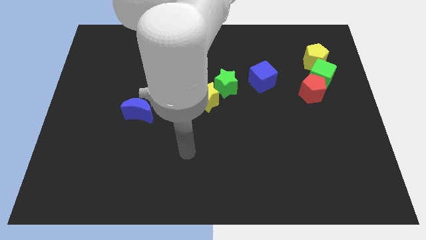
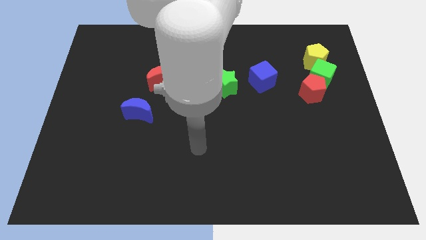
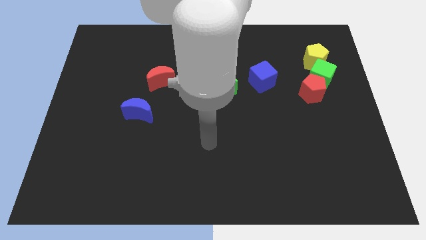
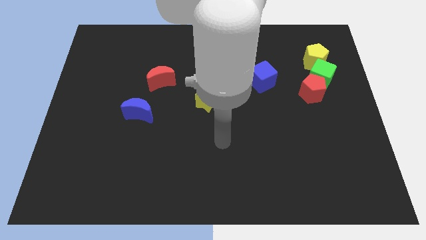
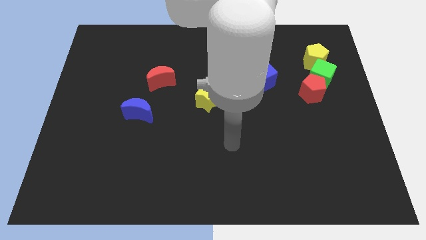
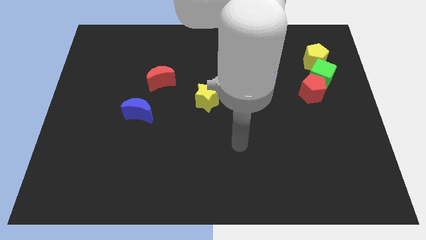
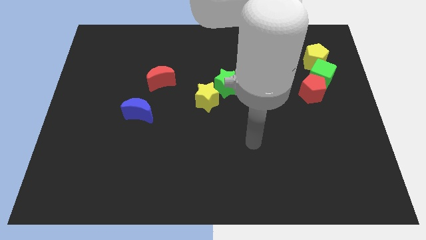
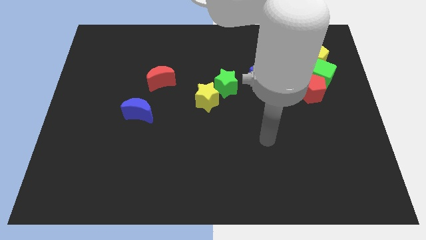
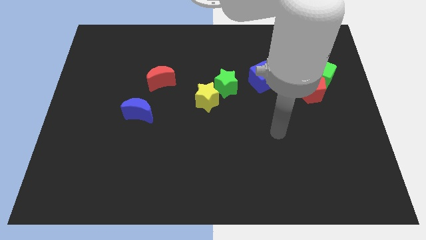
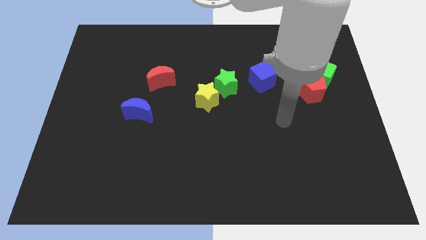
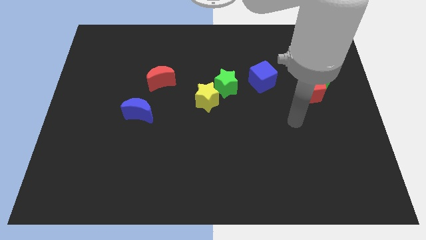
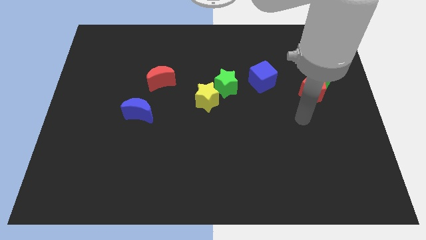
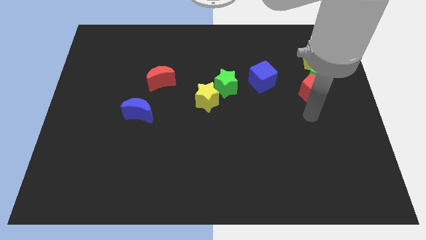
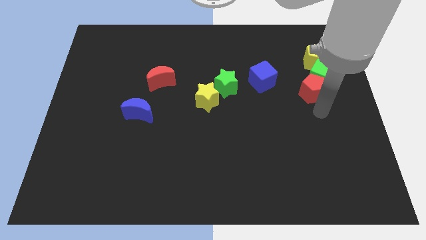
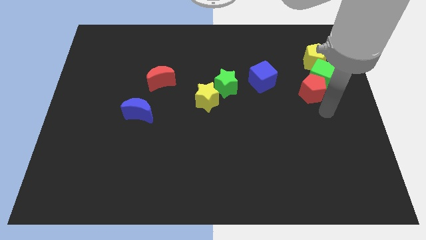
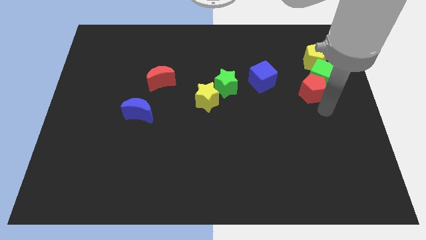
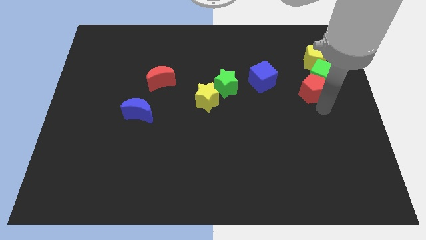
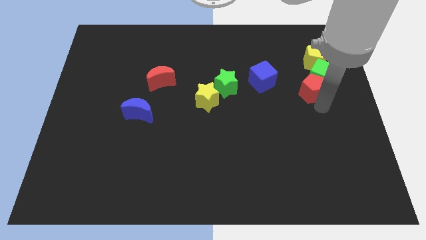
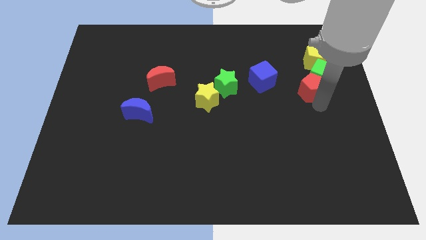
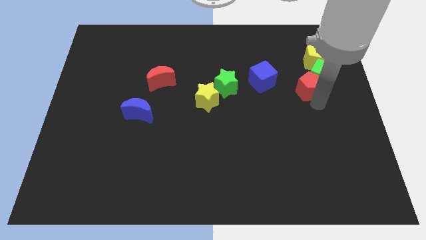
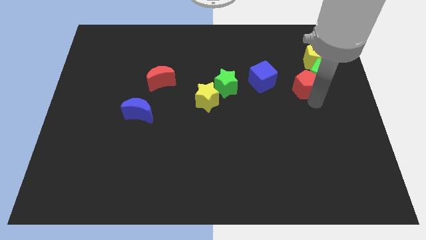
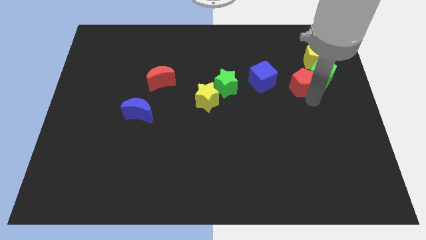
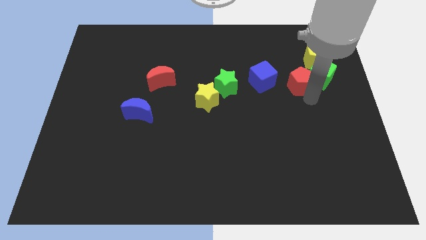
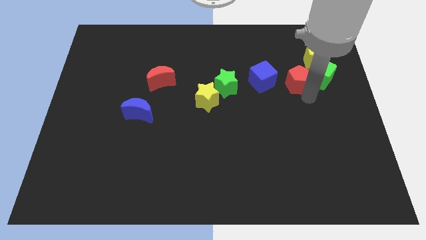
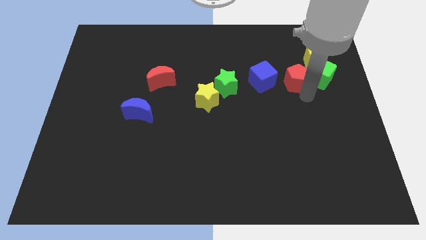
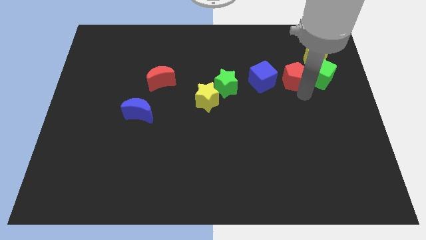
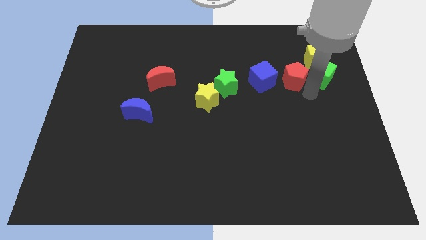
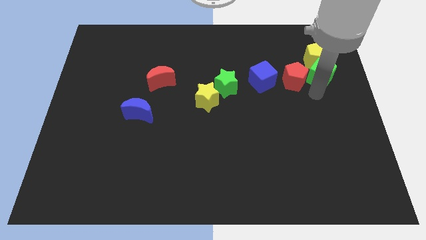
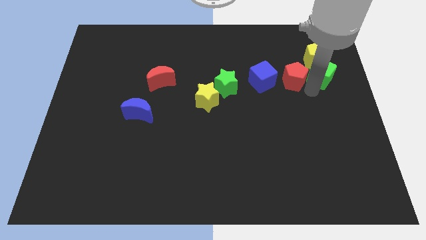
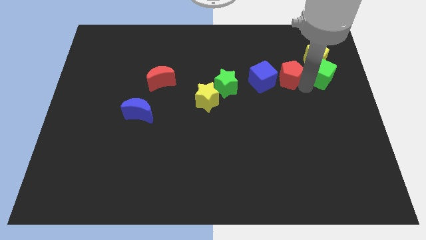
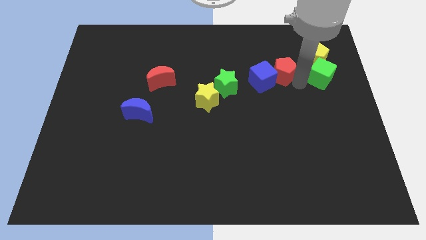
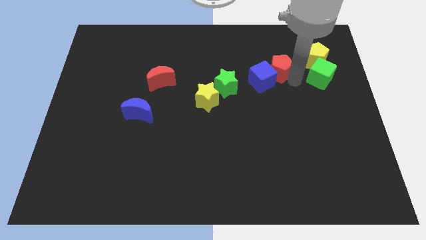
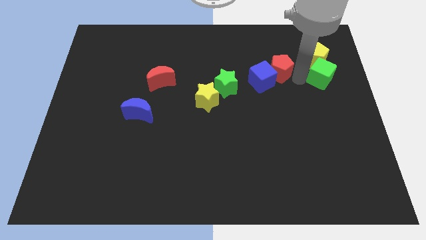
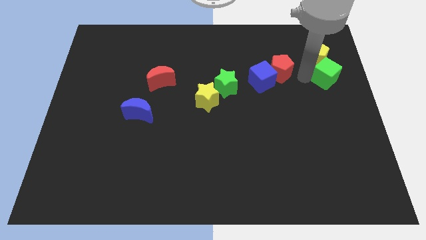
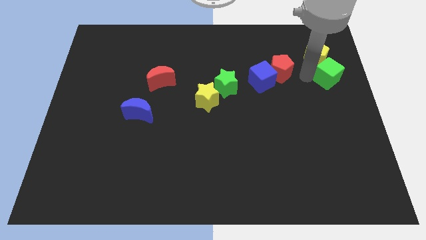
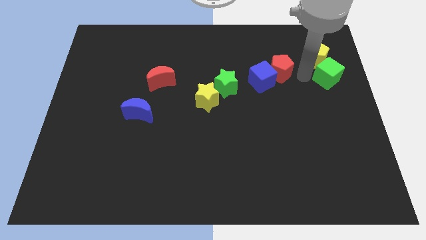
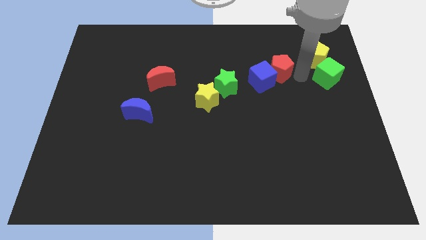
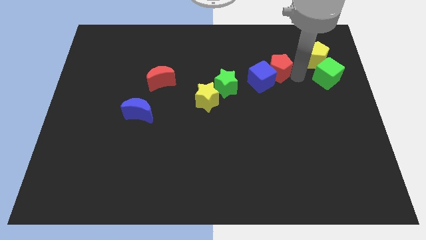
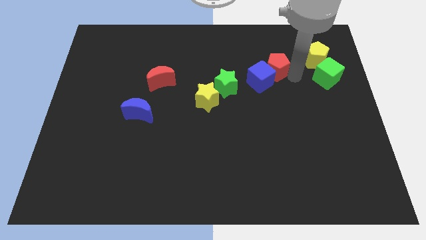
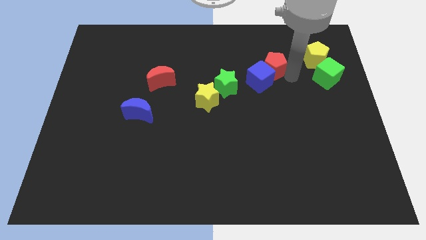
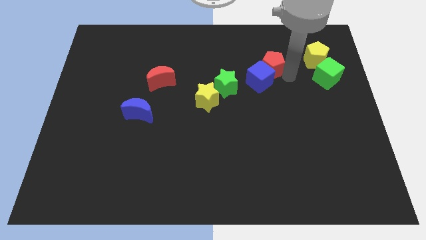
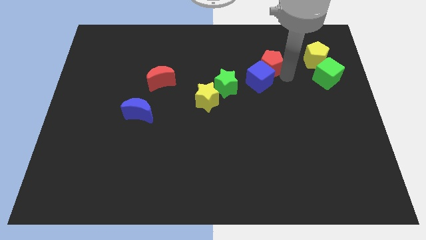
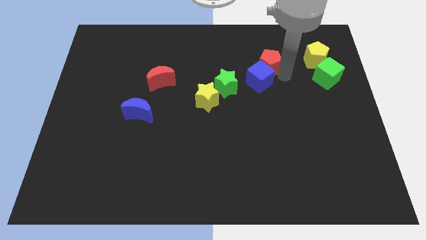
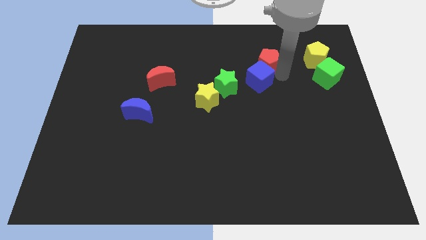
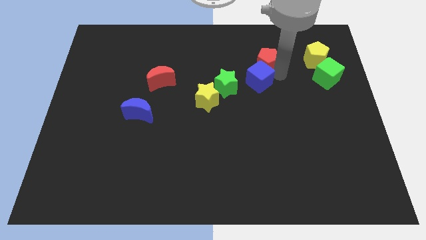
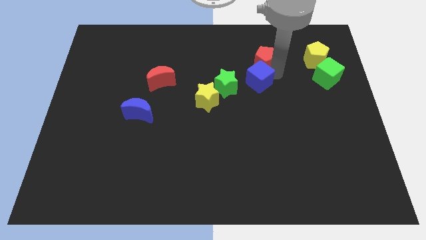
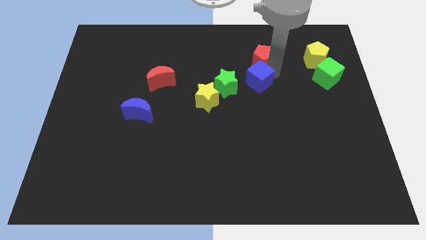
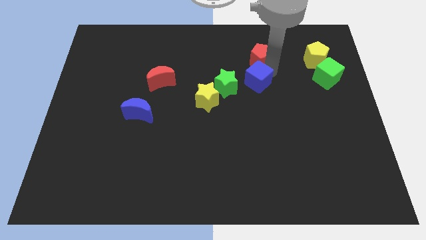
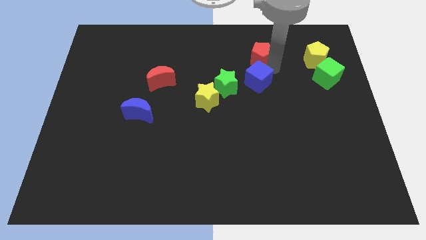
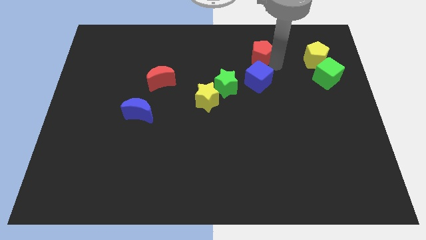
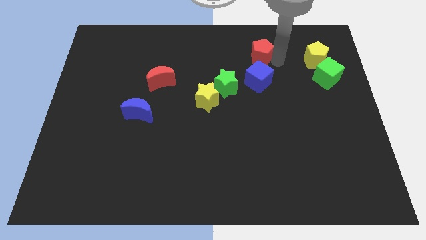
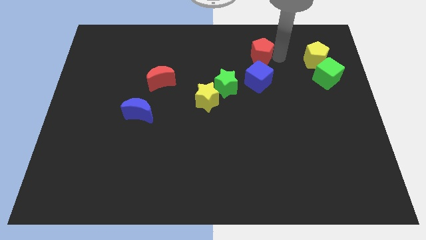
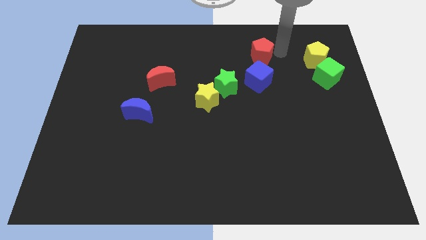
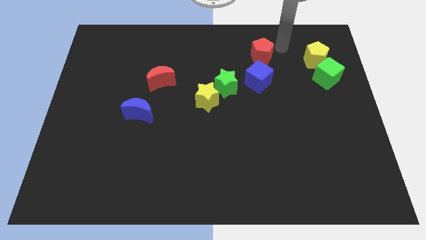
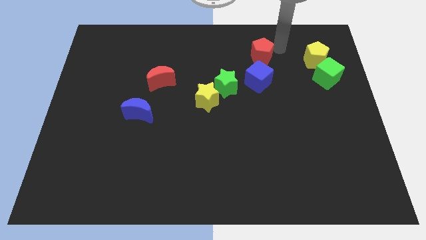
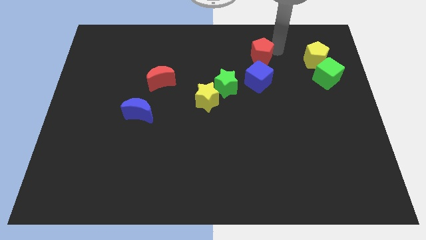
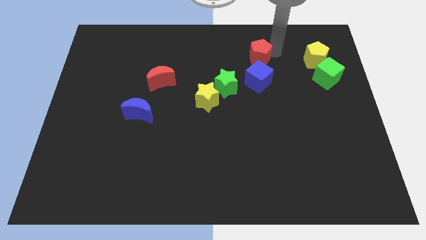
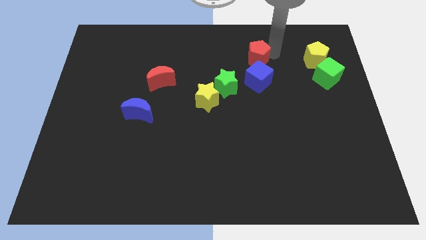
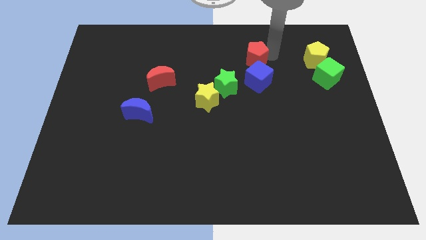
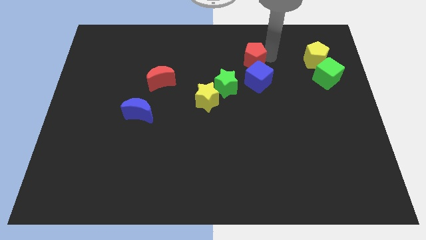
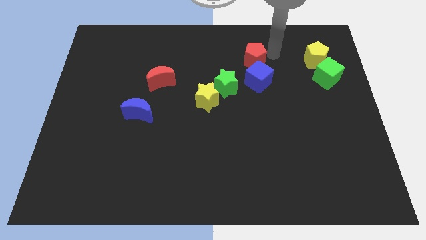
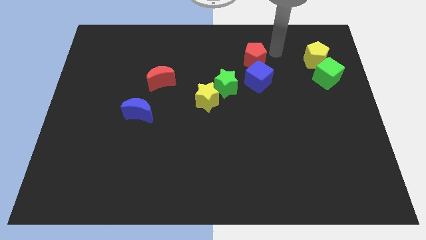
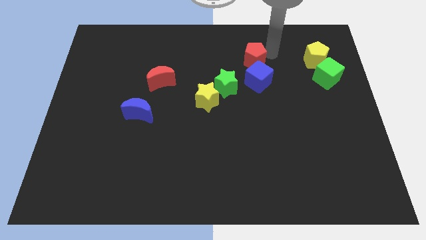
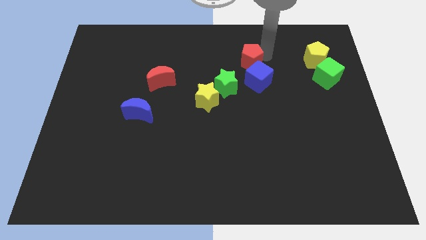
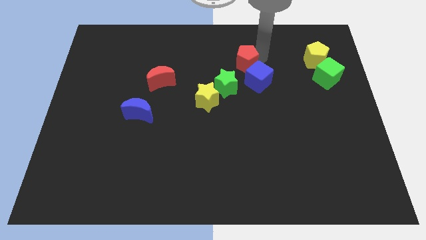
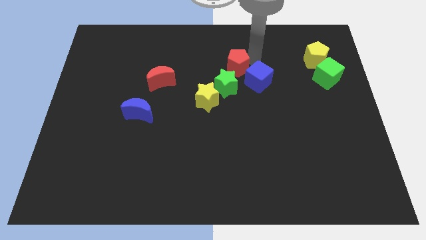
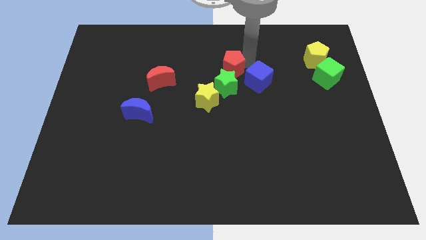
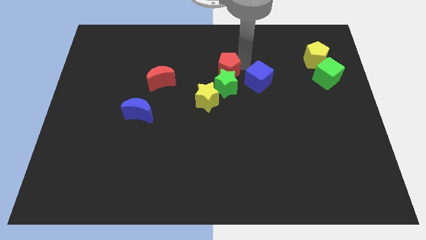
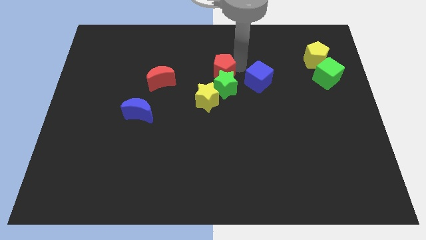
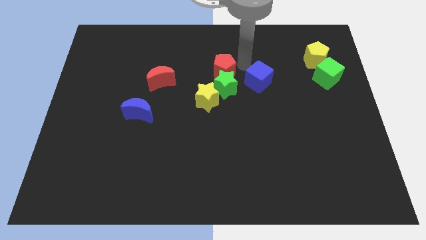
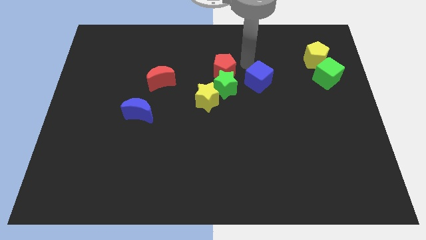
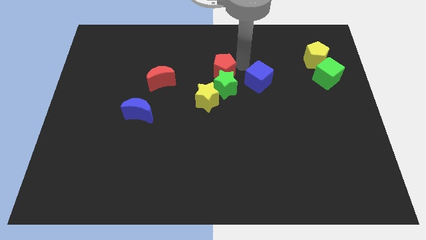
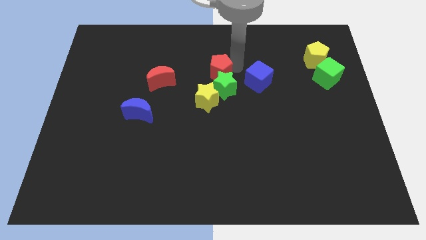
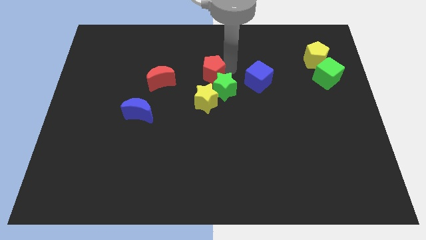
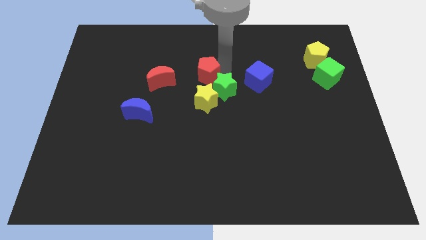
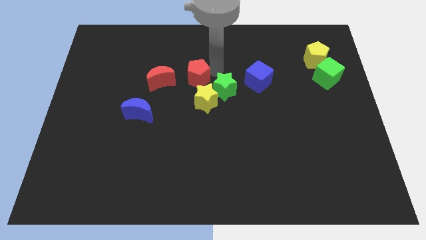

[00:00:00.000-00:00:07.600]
move the red pentagon to the left side of the green star
